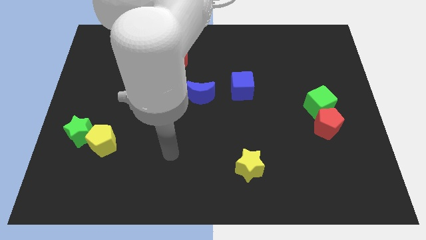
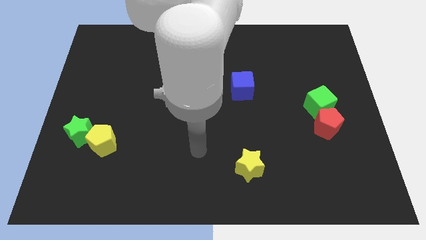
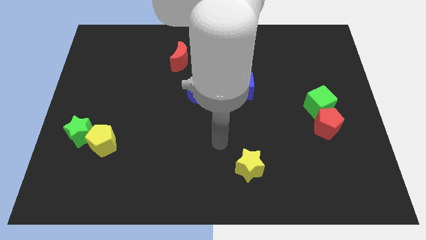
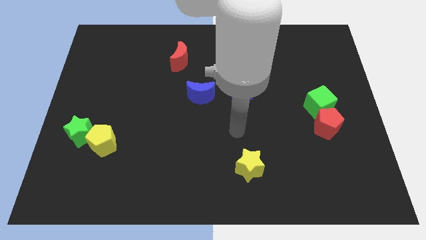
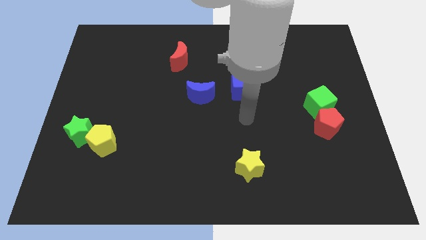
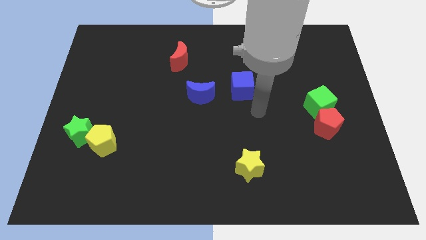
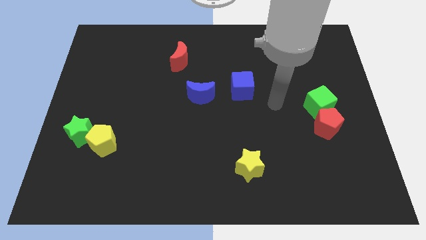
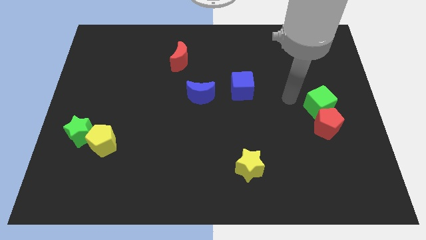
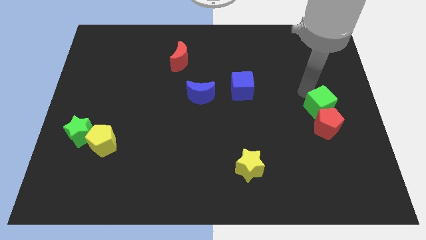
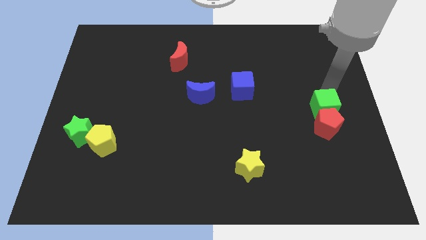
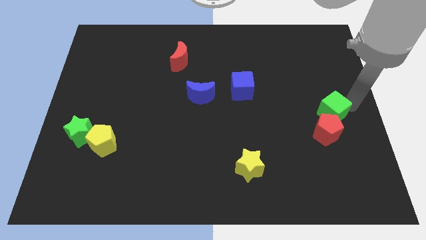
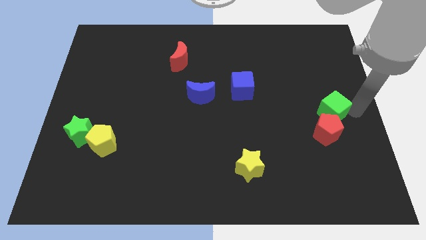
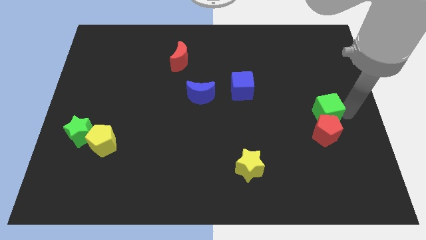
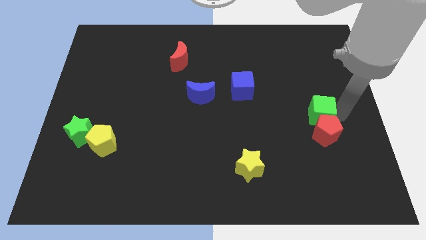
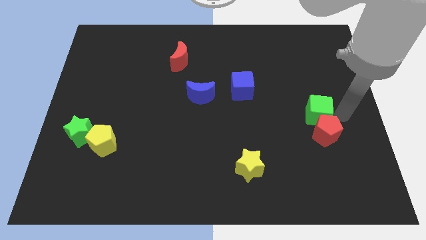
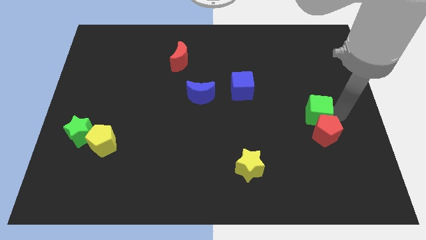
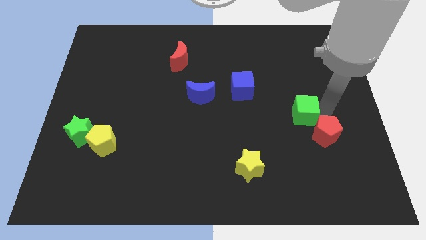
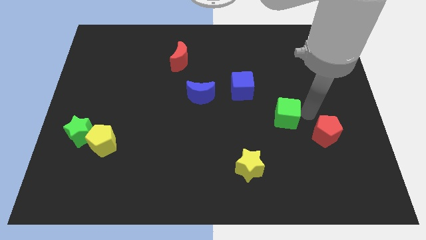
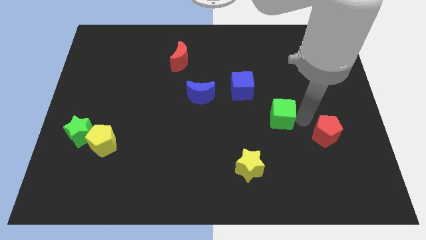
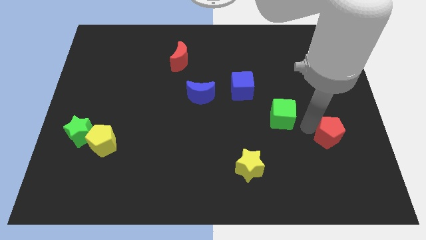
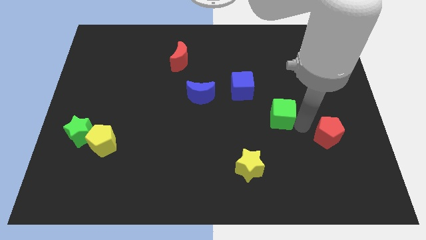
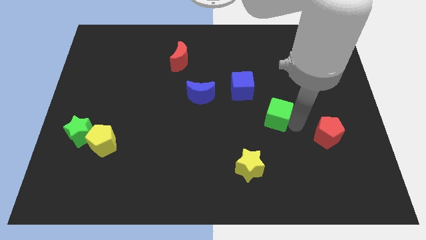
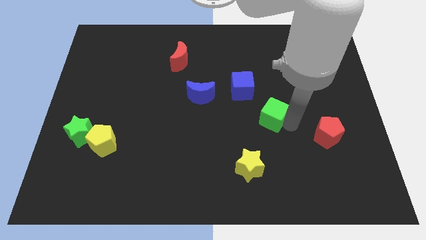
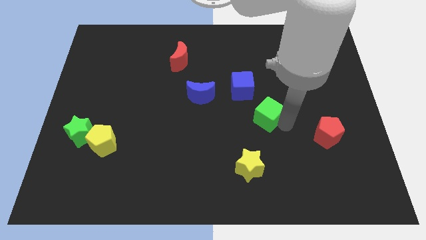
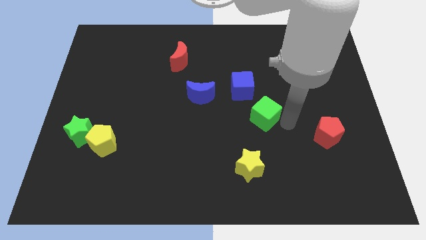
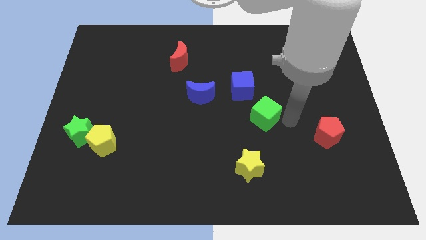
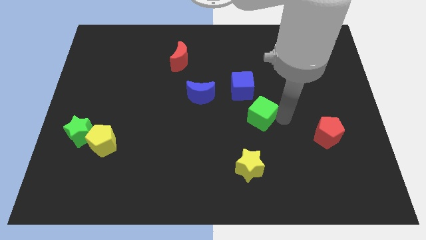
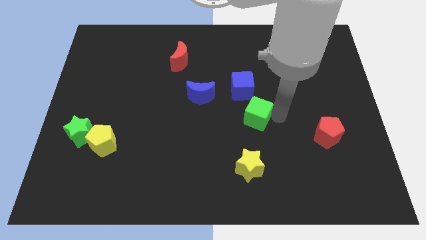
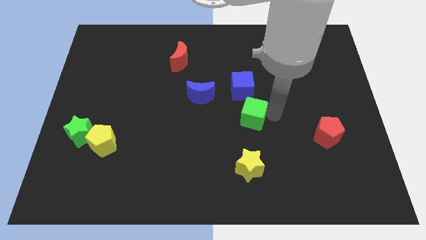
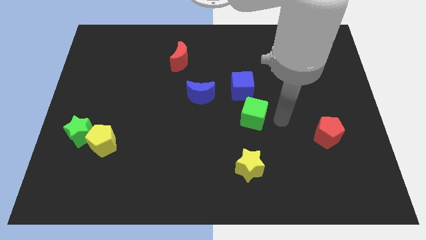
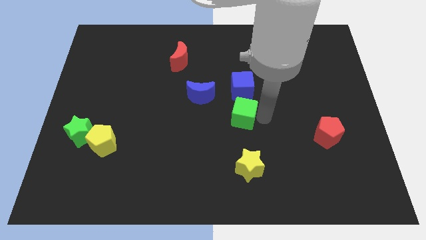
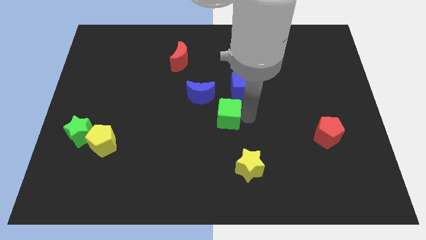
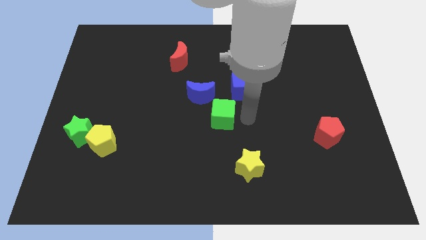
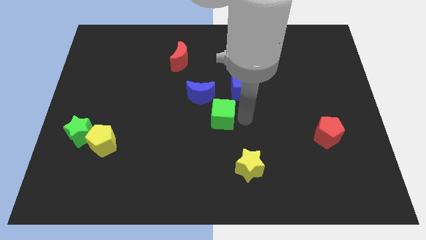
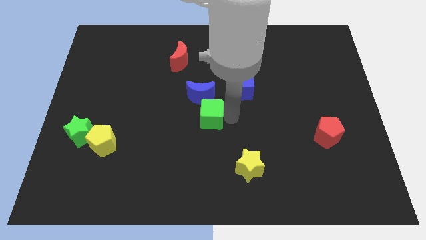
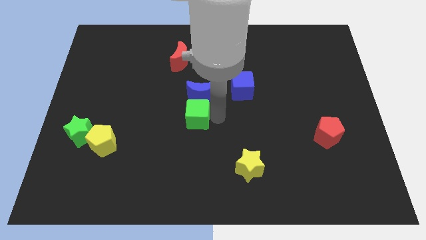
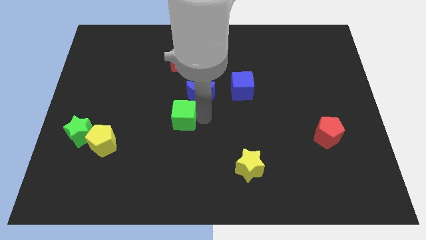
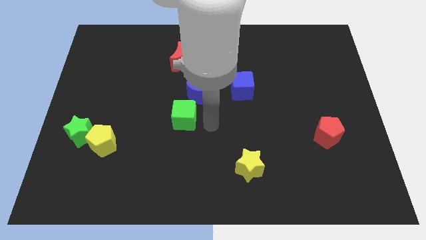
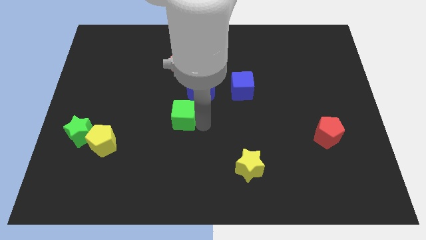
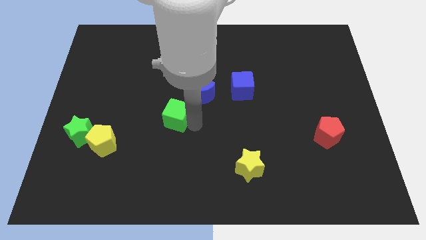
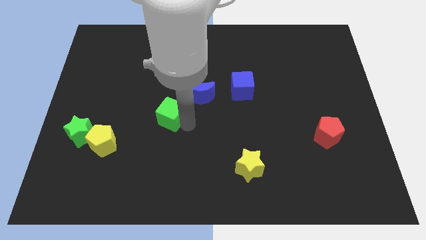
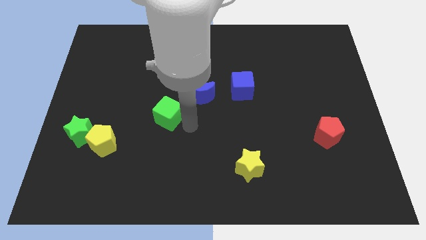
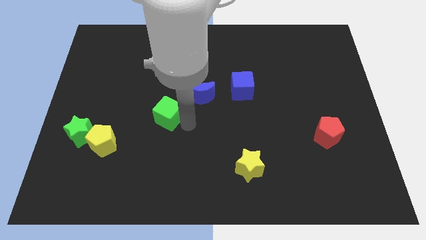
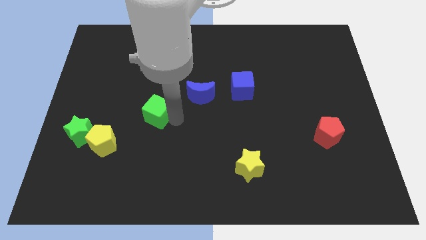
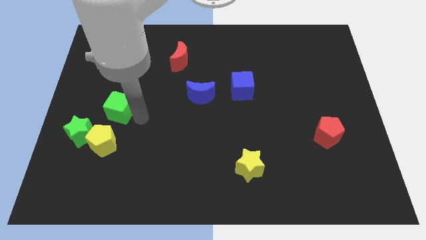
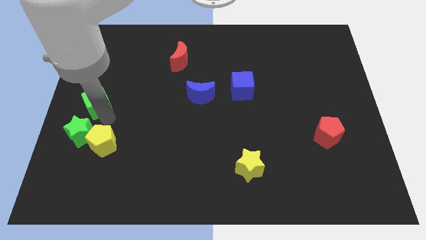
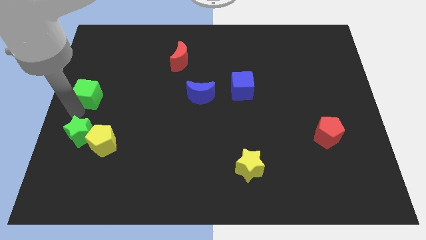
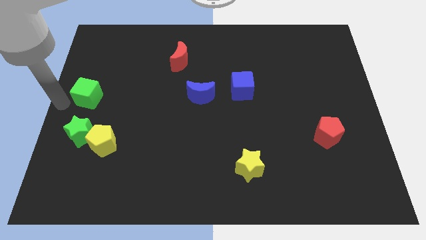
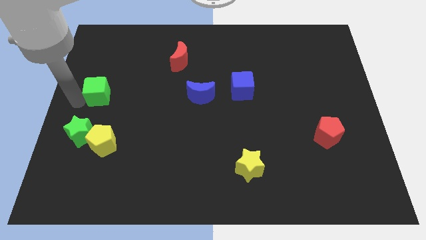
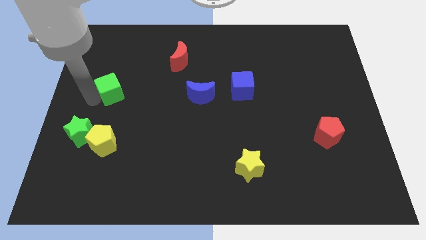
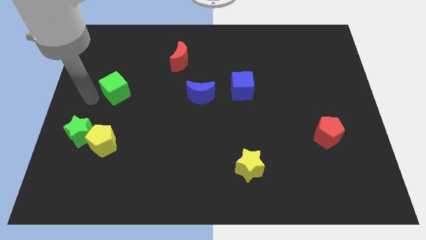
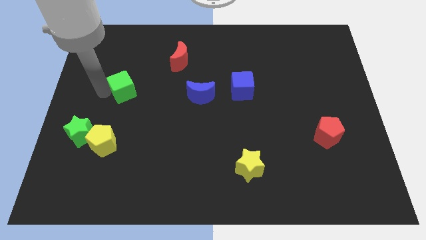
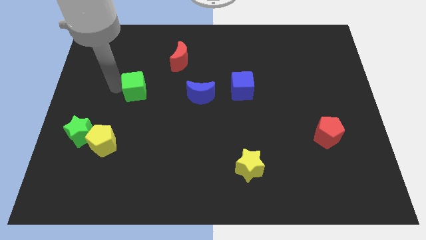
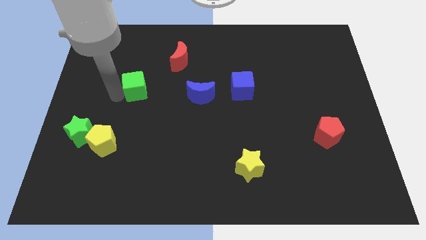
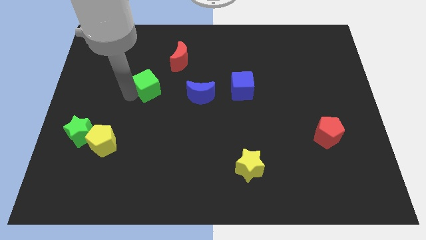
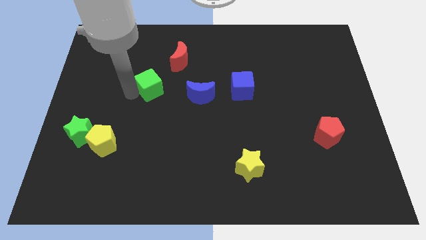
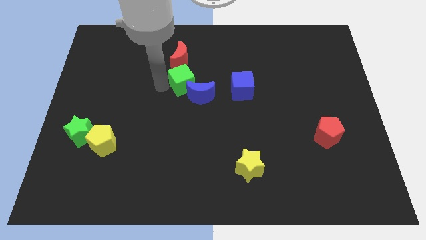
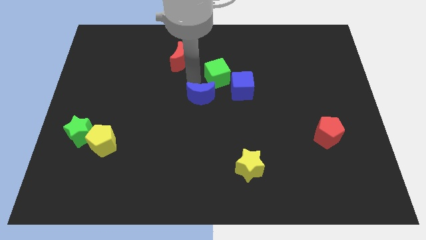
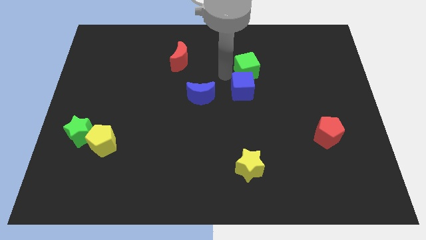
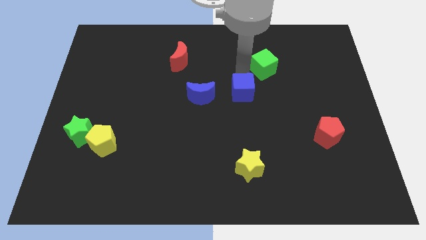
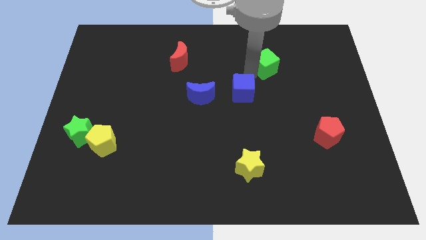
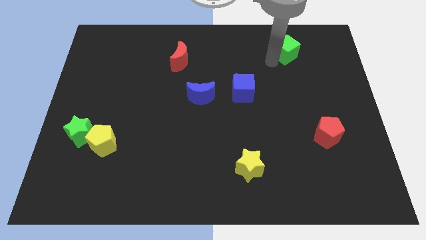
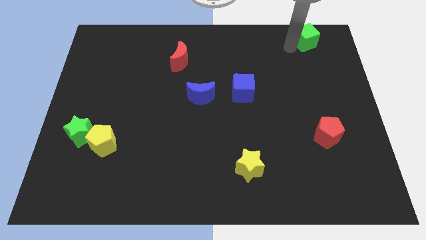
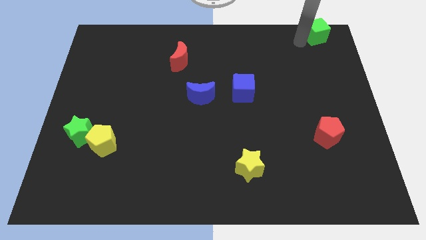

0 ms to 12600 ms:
push the green cube to the upper right corner
